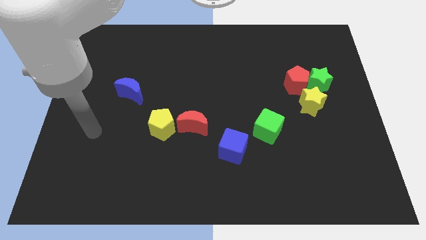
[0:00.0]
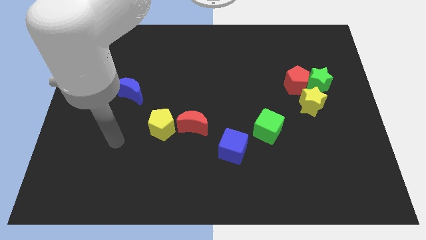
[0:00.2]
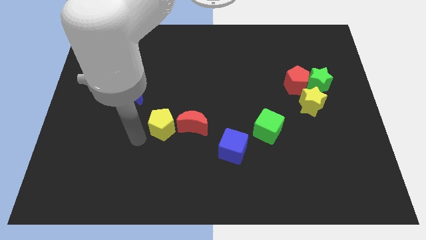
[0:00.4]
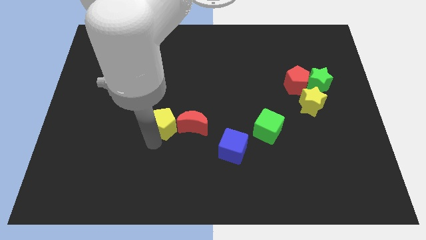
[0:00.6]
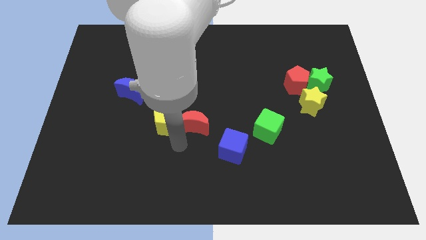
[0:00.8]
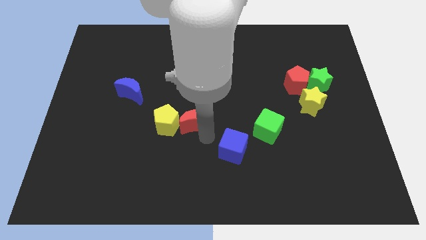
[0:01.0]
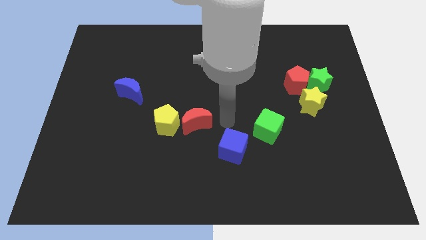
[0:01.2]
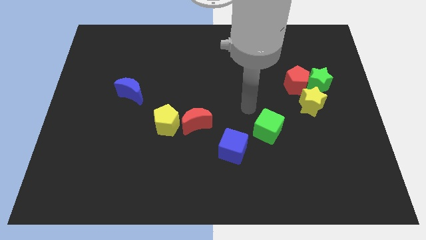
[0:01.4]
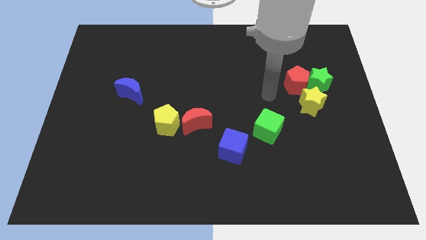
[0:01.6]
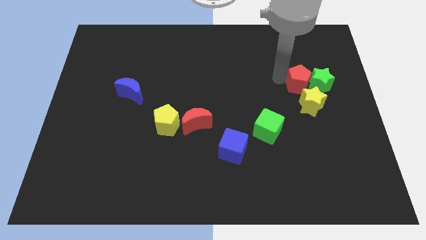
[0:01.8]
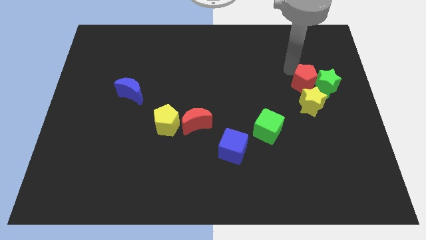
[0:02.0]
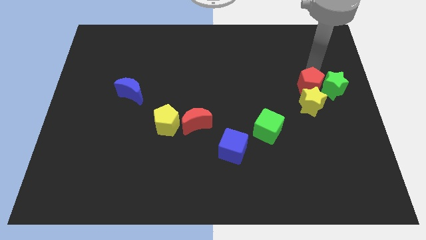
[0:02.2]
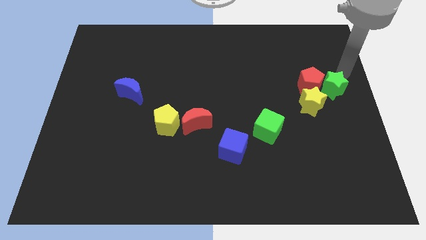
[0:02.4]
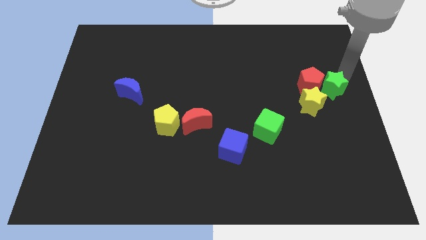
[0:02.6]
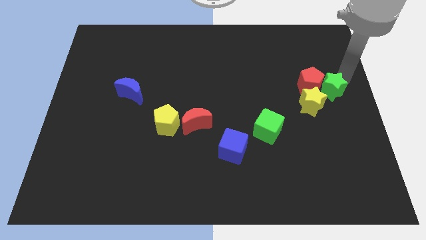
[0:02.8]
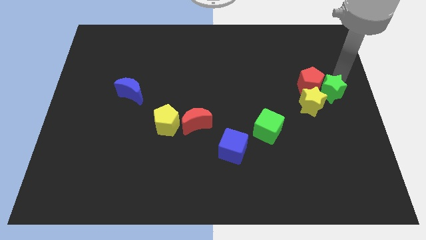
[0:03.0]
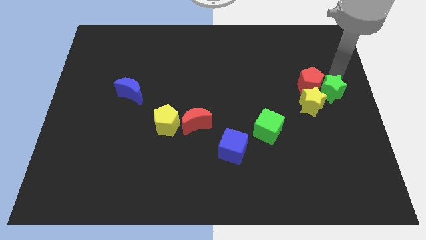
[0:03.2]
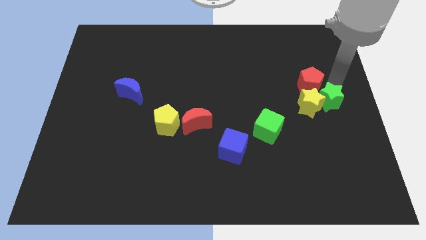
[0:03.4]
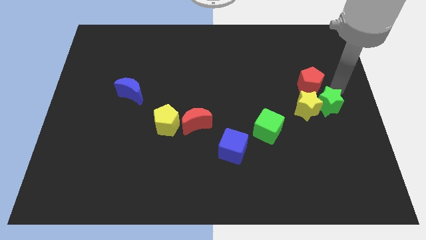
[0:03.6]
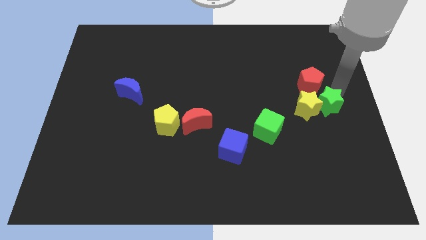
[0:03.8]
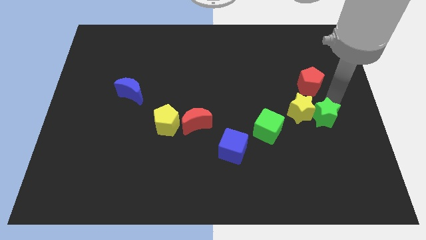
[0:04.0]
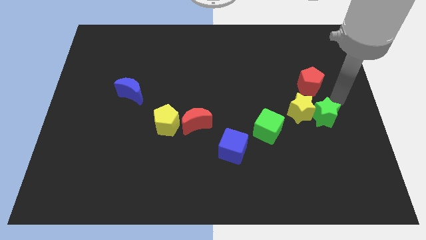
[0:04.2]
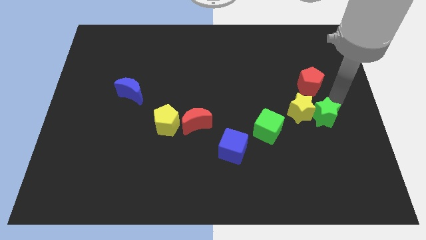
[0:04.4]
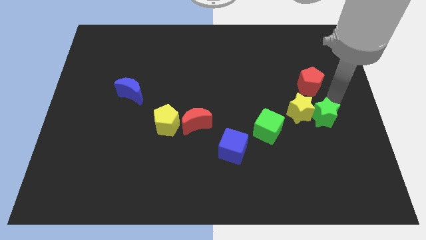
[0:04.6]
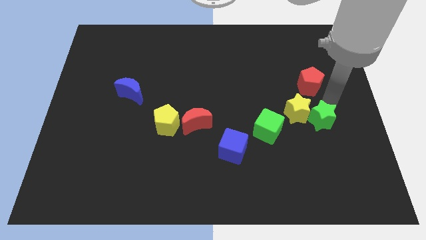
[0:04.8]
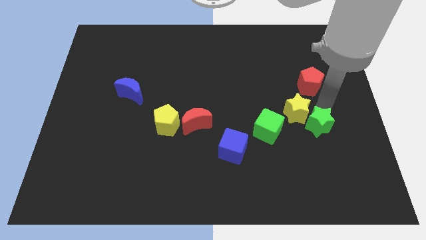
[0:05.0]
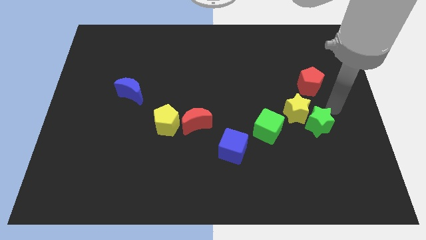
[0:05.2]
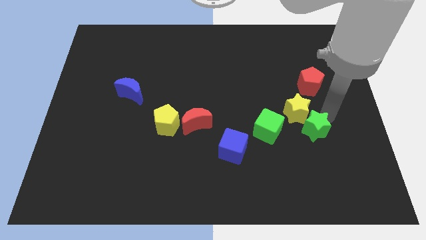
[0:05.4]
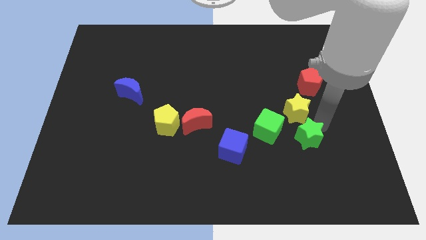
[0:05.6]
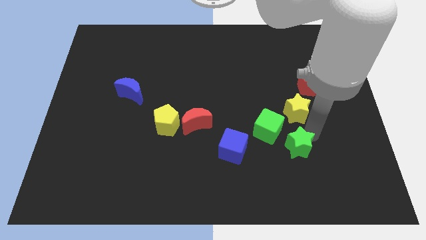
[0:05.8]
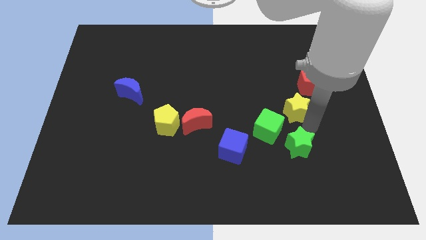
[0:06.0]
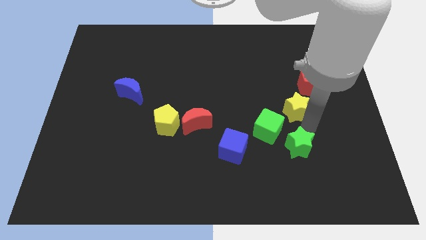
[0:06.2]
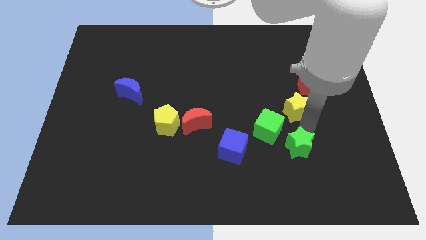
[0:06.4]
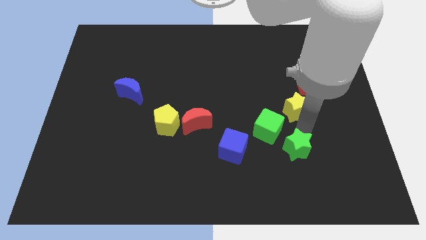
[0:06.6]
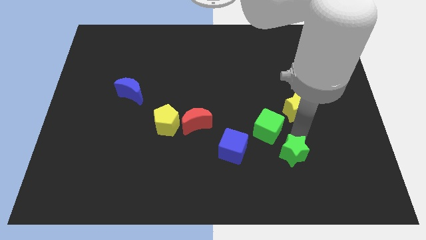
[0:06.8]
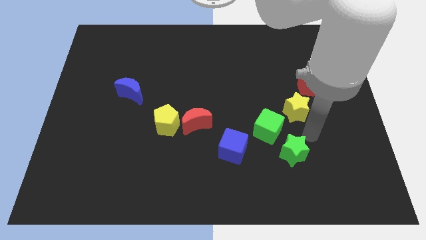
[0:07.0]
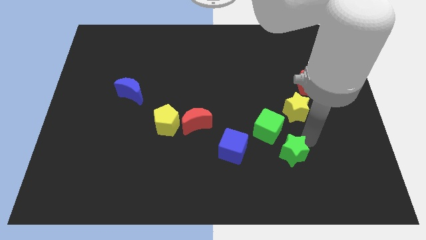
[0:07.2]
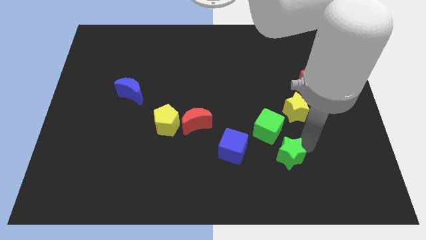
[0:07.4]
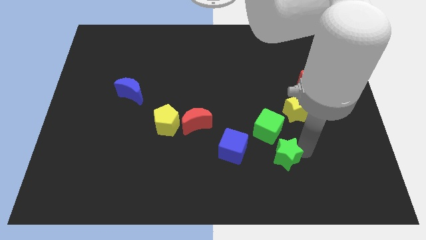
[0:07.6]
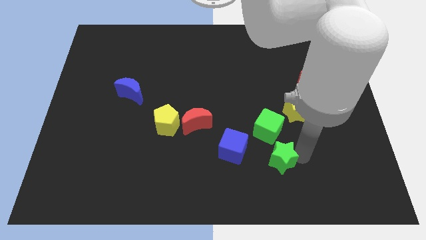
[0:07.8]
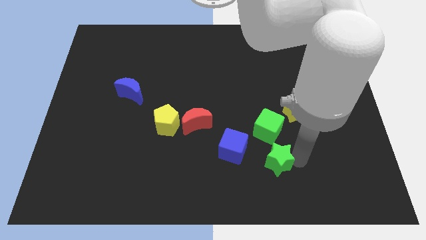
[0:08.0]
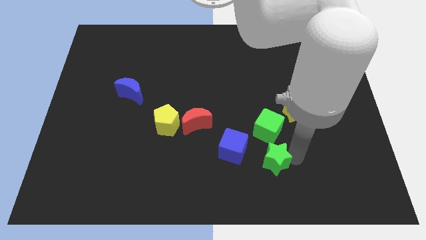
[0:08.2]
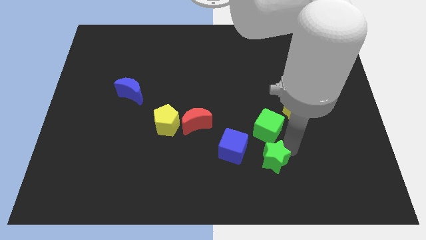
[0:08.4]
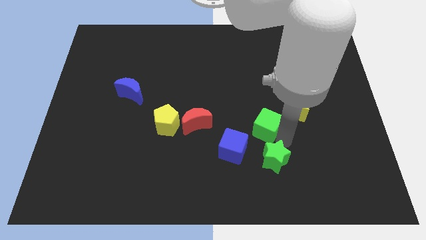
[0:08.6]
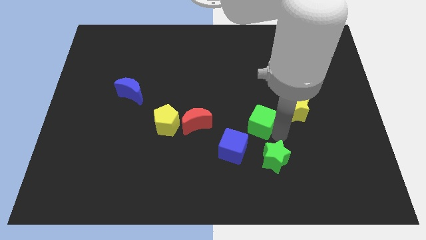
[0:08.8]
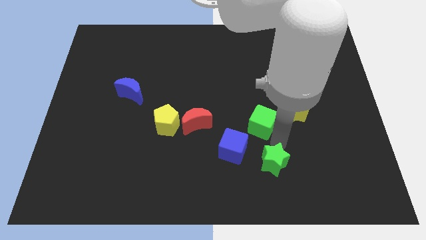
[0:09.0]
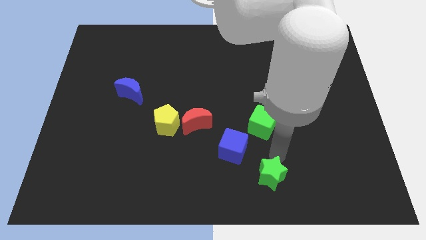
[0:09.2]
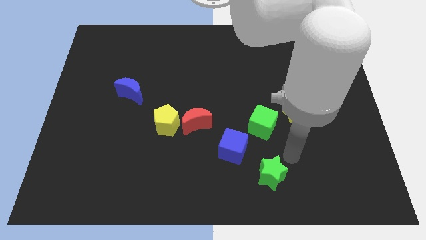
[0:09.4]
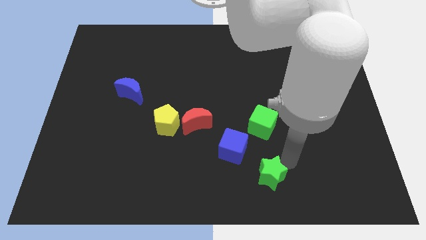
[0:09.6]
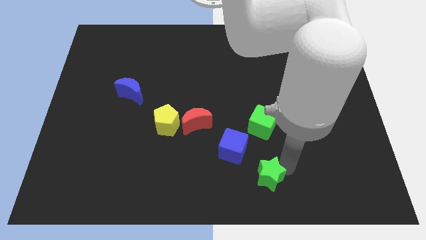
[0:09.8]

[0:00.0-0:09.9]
put the green star to the bottom

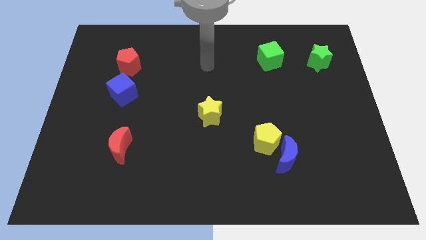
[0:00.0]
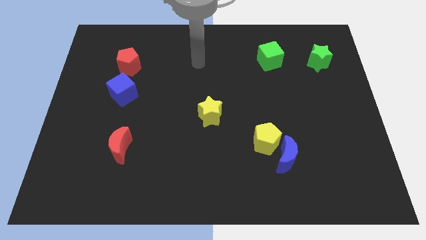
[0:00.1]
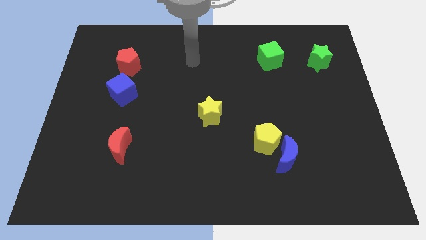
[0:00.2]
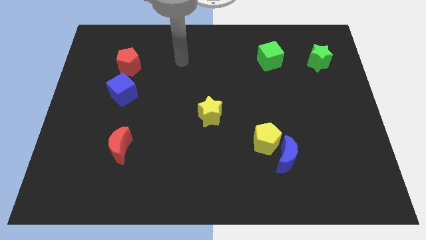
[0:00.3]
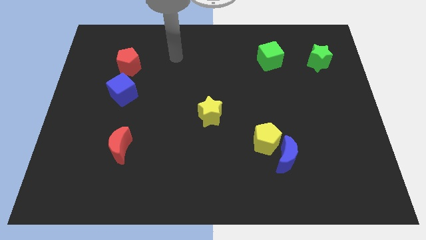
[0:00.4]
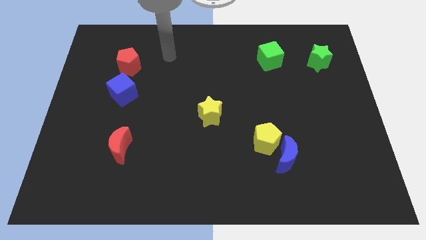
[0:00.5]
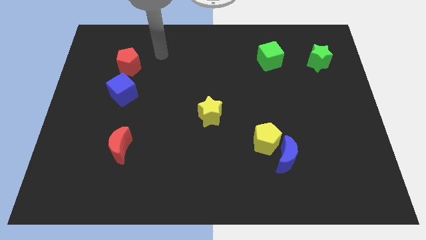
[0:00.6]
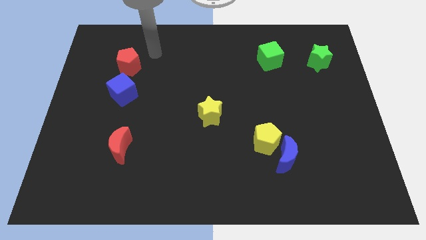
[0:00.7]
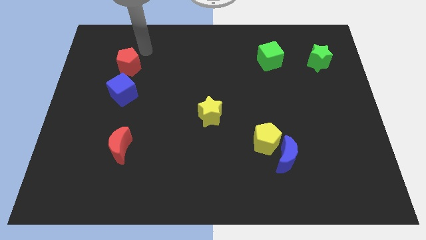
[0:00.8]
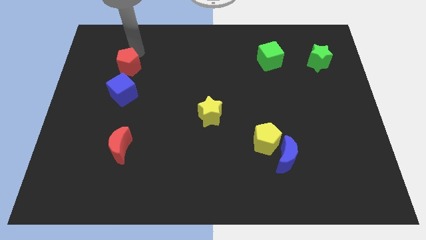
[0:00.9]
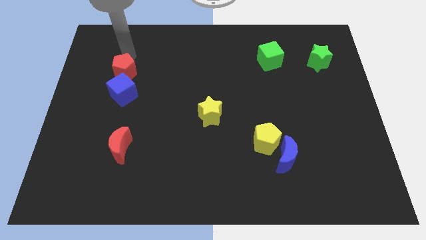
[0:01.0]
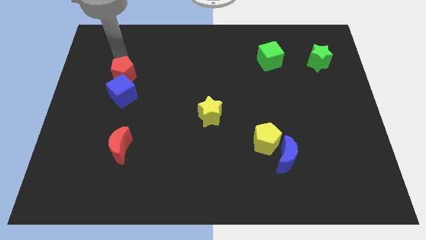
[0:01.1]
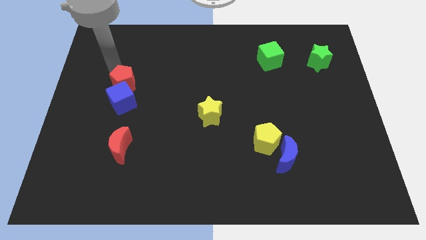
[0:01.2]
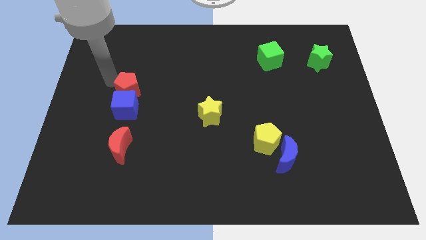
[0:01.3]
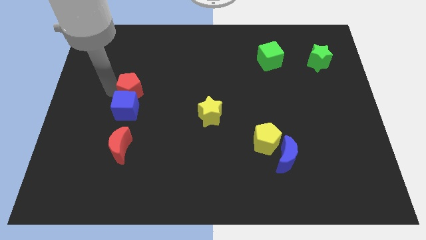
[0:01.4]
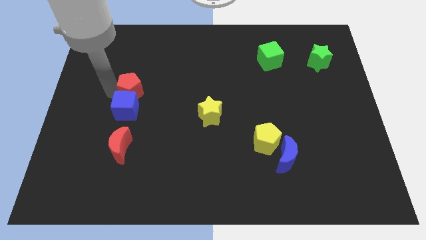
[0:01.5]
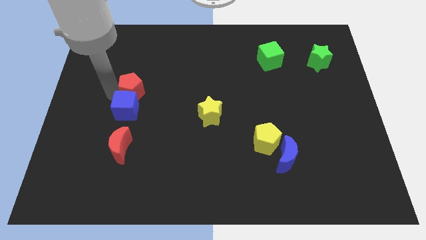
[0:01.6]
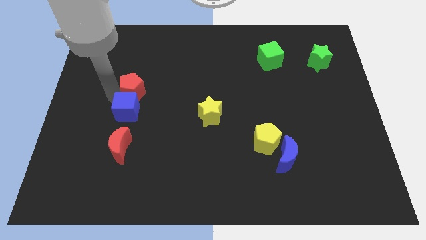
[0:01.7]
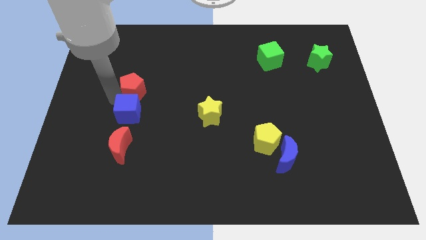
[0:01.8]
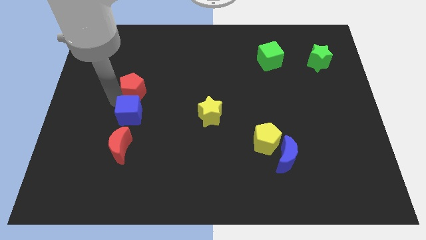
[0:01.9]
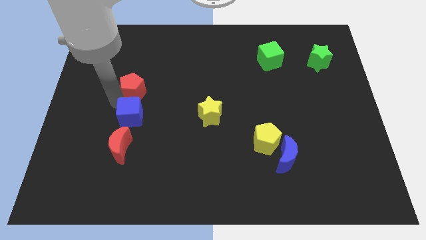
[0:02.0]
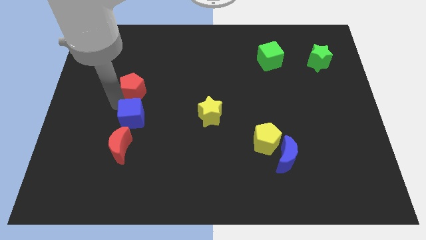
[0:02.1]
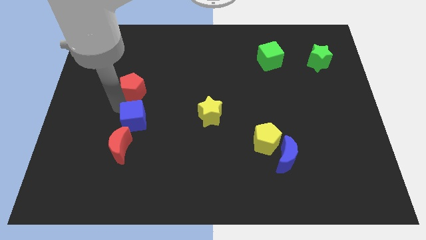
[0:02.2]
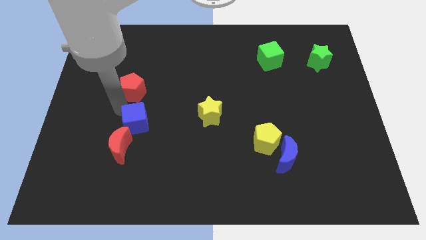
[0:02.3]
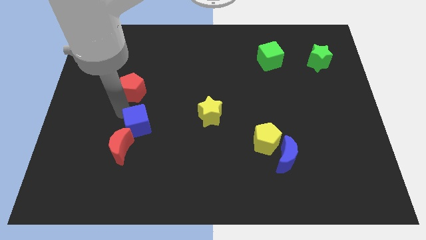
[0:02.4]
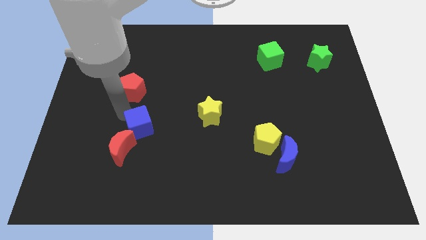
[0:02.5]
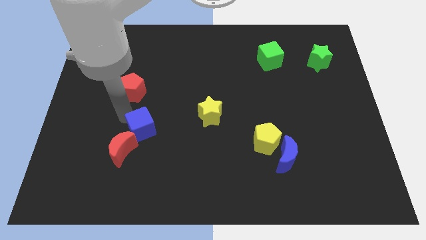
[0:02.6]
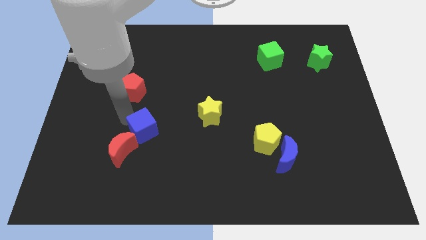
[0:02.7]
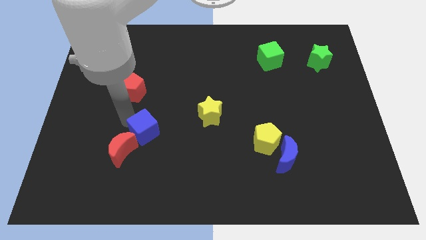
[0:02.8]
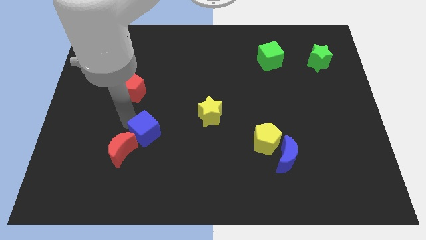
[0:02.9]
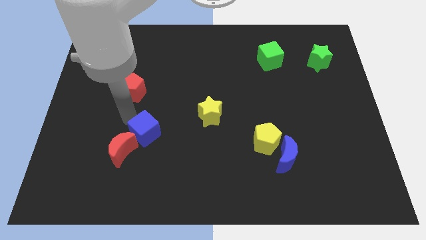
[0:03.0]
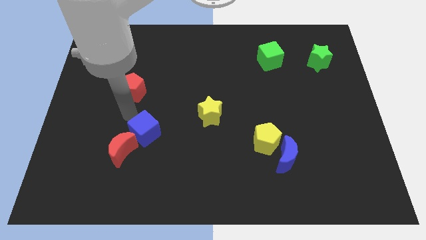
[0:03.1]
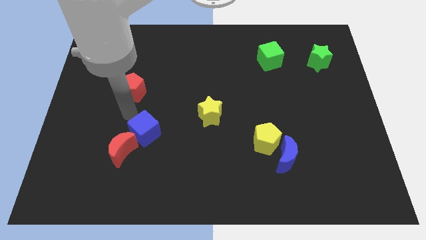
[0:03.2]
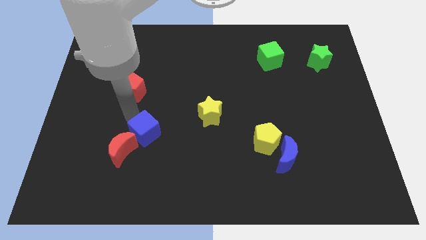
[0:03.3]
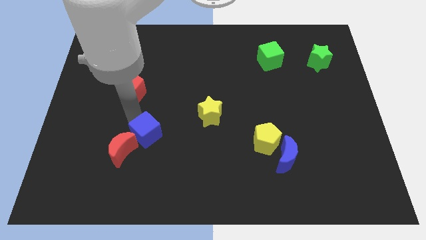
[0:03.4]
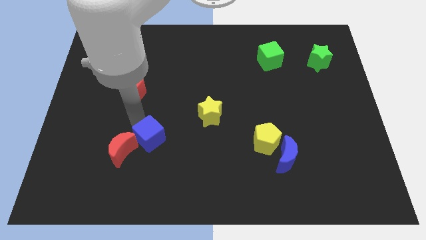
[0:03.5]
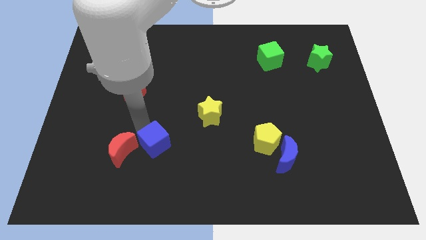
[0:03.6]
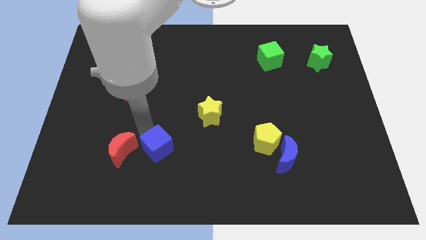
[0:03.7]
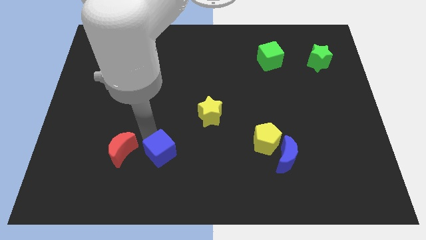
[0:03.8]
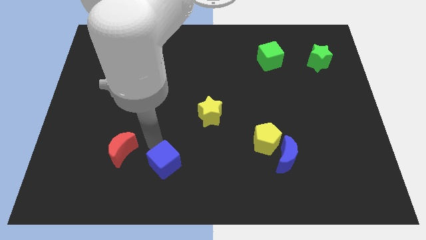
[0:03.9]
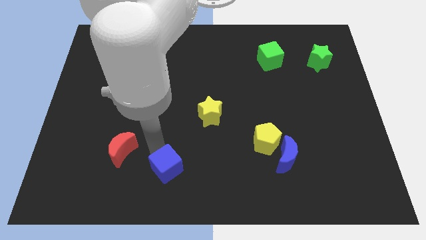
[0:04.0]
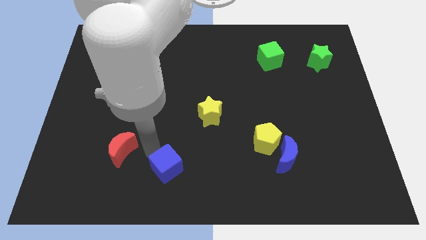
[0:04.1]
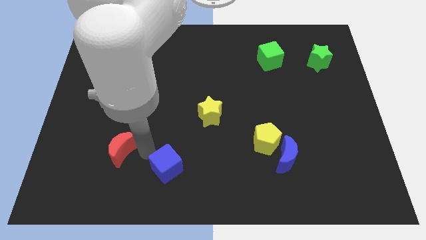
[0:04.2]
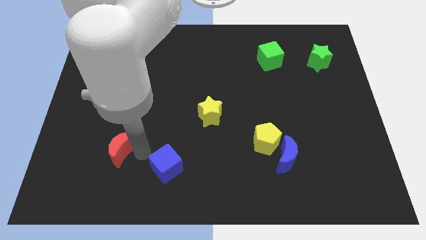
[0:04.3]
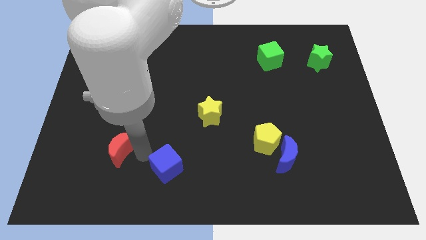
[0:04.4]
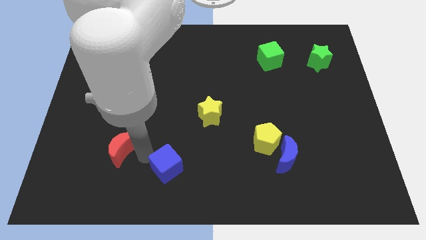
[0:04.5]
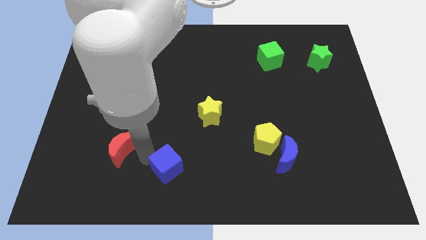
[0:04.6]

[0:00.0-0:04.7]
push the blue cube to the bottom
